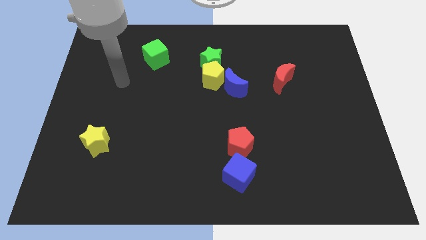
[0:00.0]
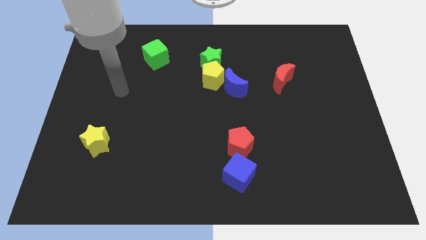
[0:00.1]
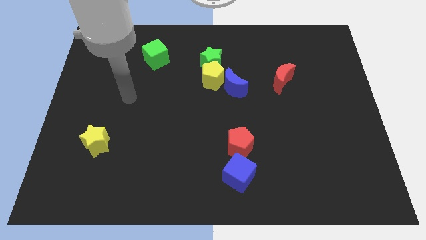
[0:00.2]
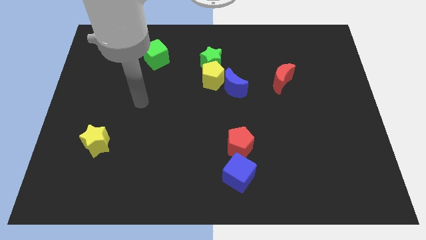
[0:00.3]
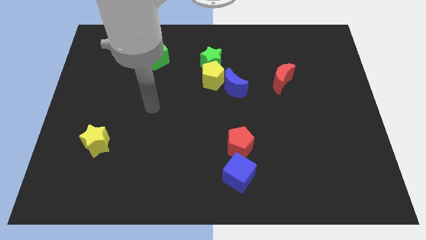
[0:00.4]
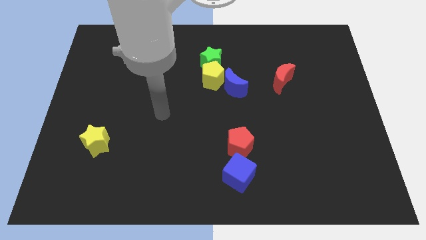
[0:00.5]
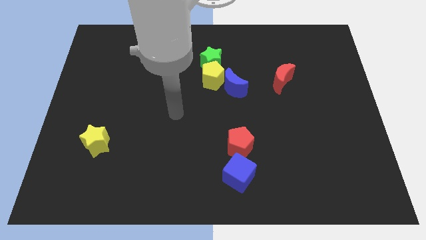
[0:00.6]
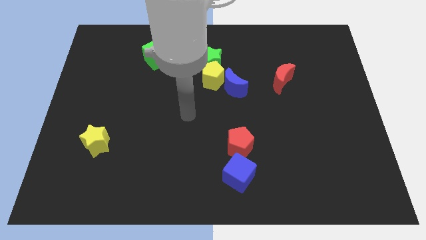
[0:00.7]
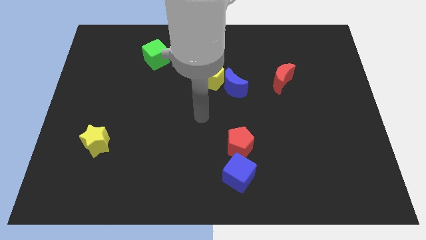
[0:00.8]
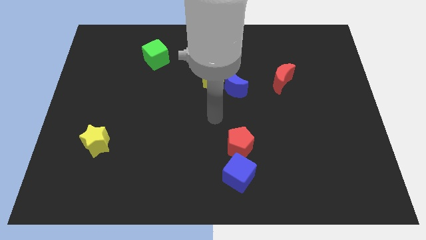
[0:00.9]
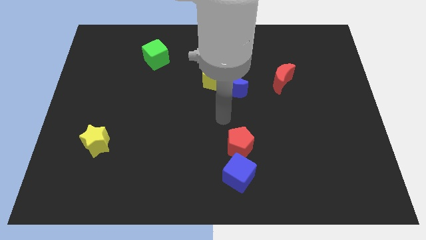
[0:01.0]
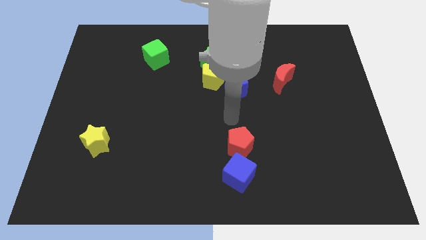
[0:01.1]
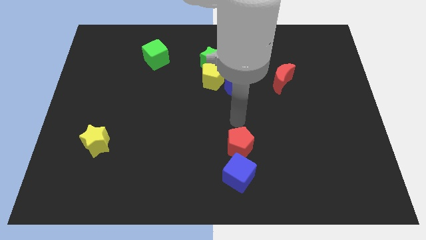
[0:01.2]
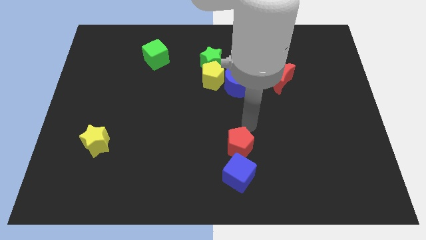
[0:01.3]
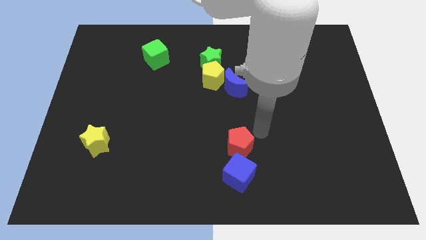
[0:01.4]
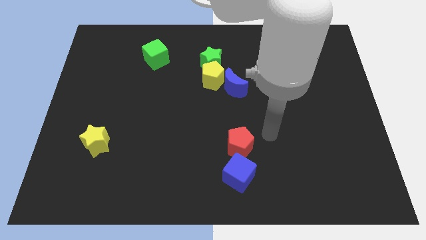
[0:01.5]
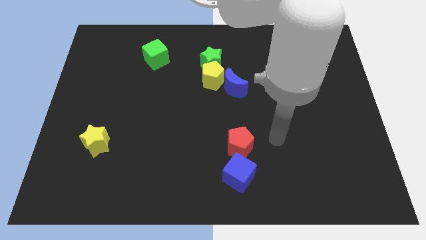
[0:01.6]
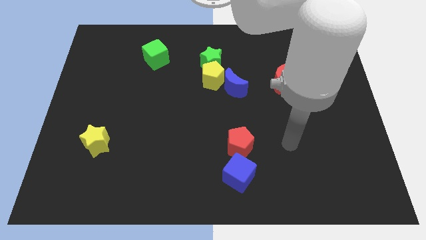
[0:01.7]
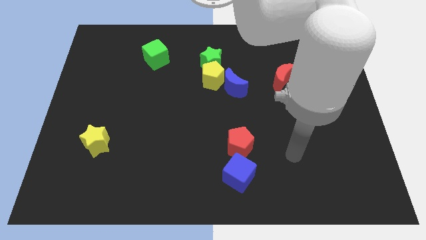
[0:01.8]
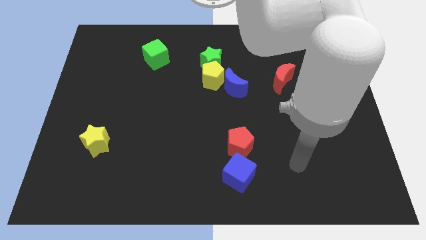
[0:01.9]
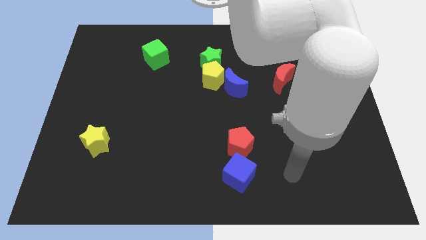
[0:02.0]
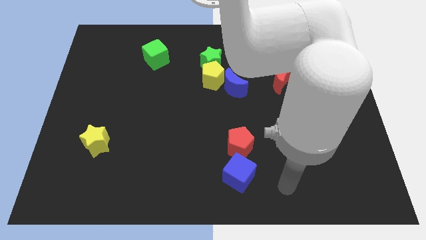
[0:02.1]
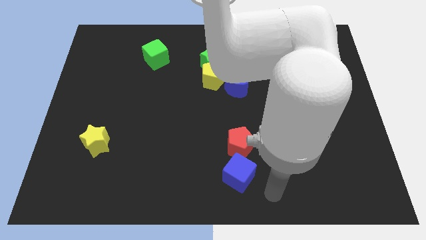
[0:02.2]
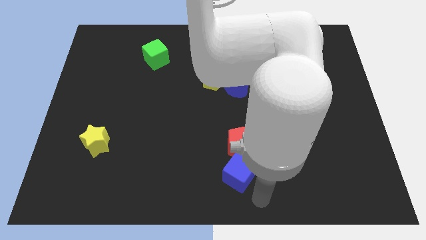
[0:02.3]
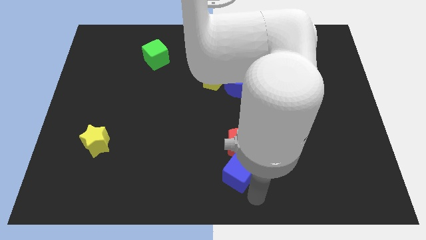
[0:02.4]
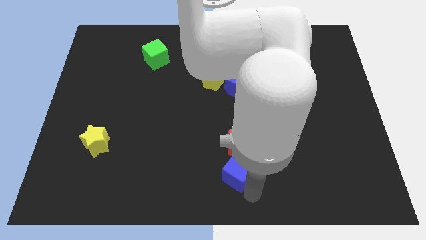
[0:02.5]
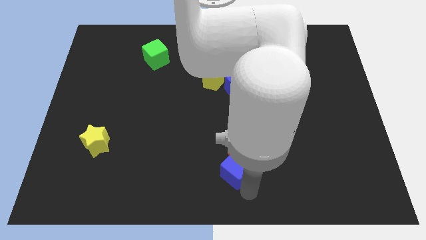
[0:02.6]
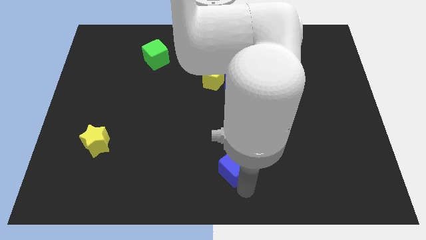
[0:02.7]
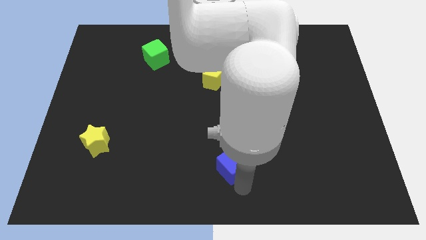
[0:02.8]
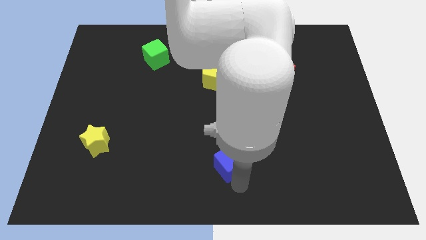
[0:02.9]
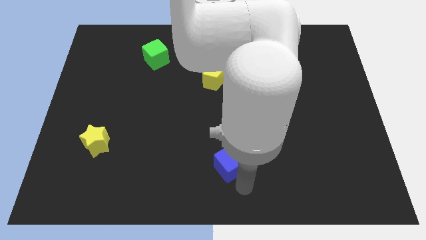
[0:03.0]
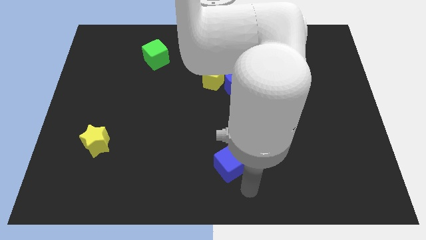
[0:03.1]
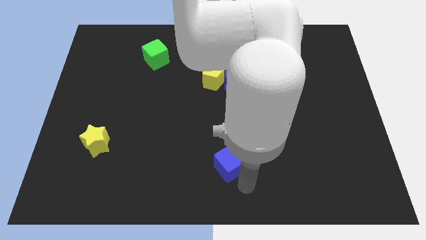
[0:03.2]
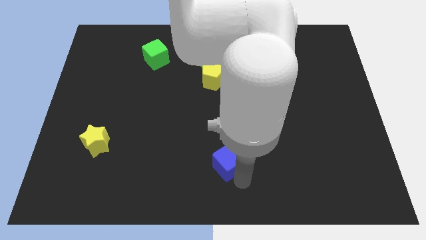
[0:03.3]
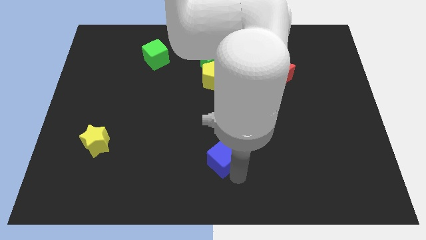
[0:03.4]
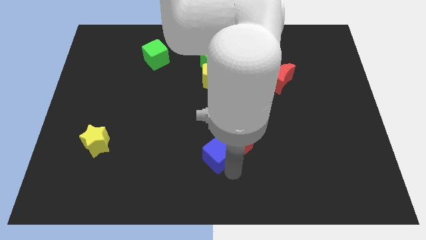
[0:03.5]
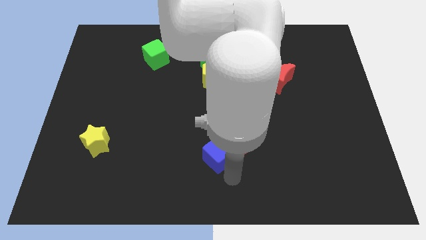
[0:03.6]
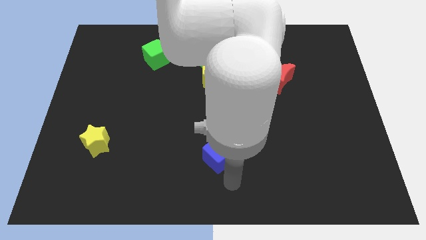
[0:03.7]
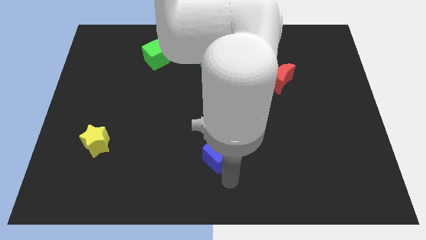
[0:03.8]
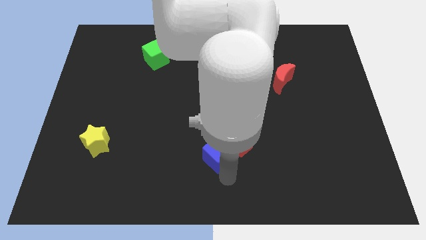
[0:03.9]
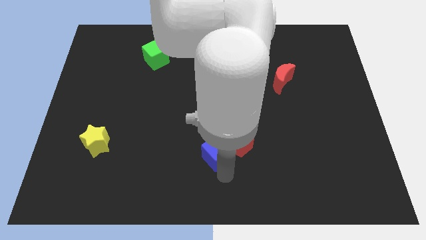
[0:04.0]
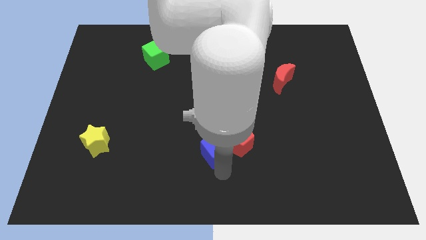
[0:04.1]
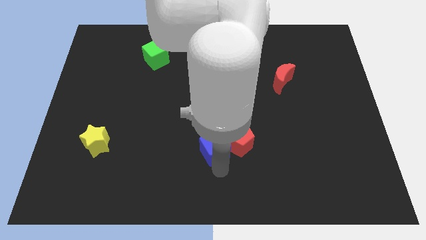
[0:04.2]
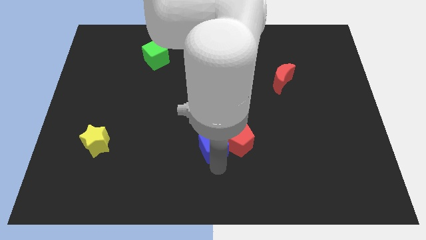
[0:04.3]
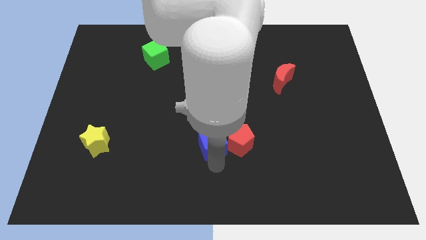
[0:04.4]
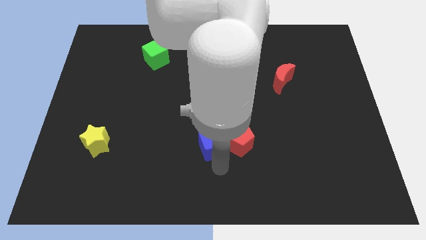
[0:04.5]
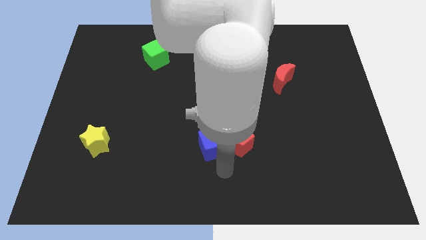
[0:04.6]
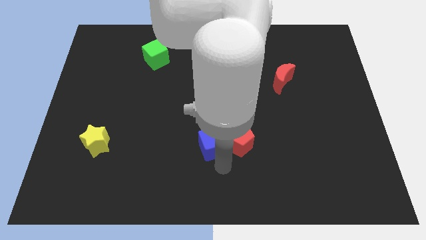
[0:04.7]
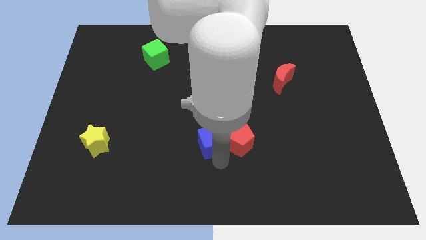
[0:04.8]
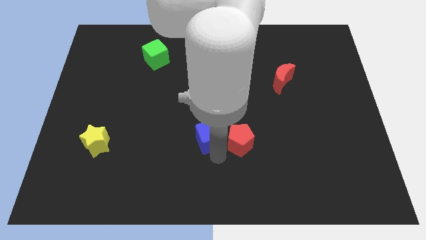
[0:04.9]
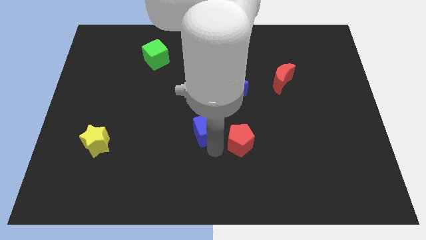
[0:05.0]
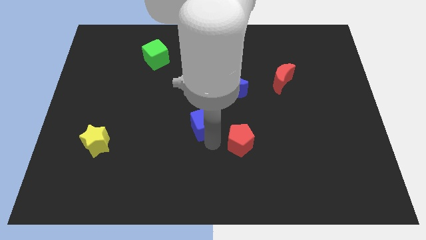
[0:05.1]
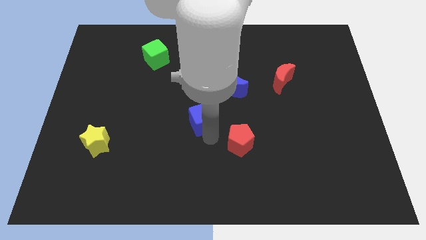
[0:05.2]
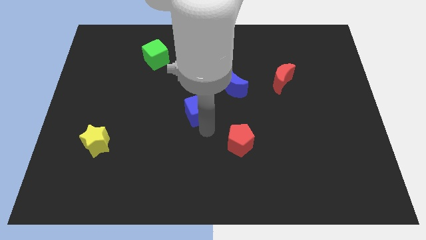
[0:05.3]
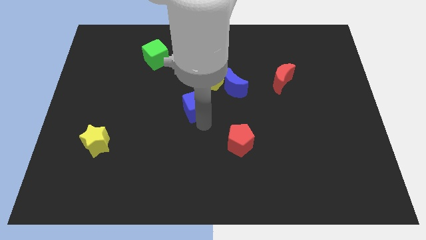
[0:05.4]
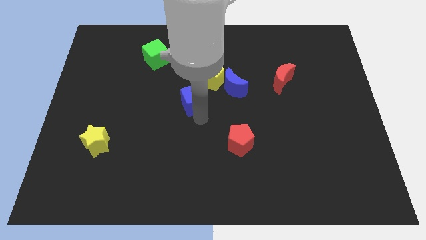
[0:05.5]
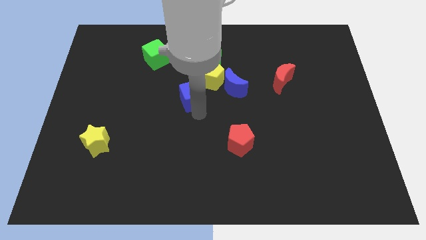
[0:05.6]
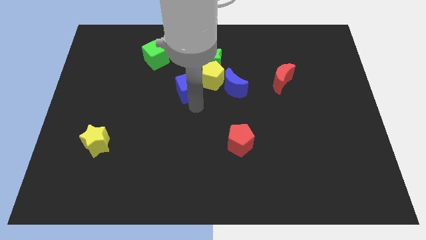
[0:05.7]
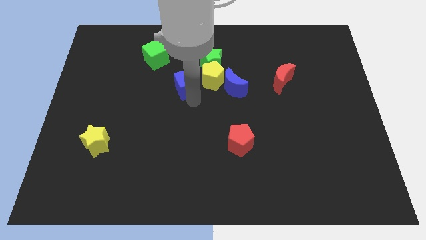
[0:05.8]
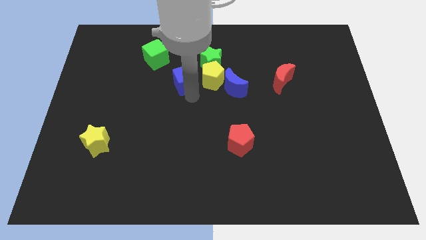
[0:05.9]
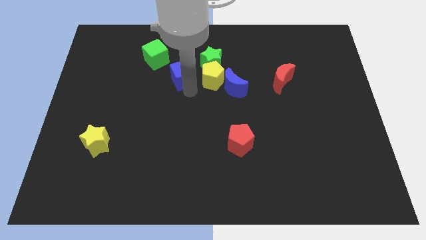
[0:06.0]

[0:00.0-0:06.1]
push the blue cube to the left of the green star

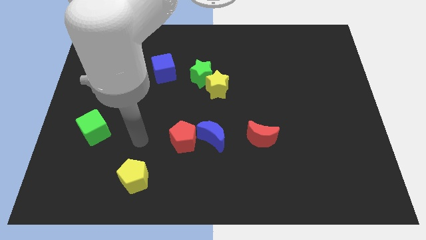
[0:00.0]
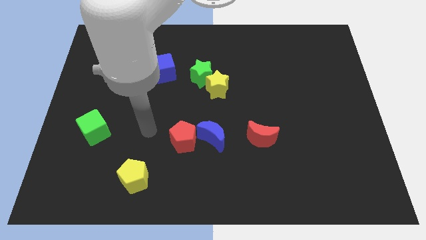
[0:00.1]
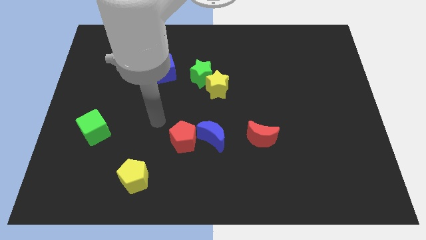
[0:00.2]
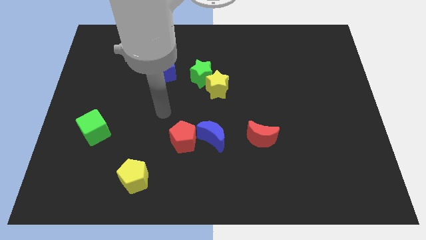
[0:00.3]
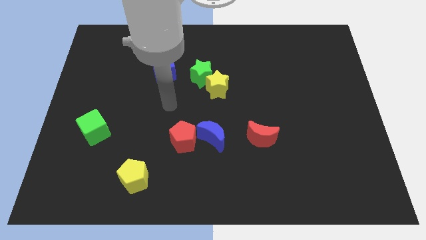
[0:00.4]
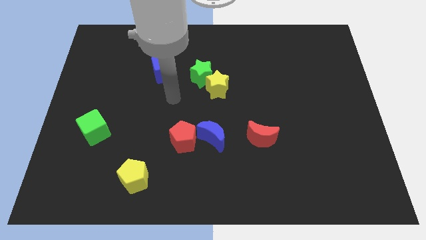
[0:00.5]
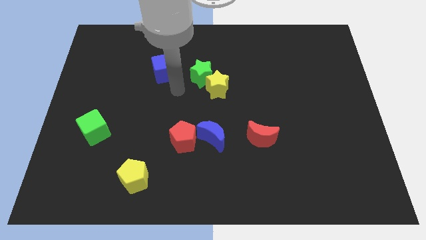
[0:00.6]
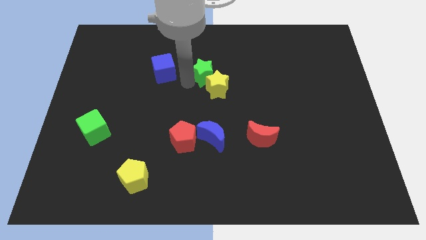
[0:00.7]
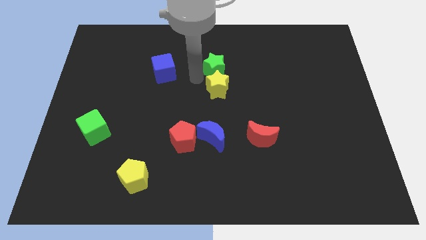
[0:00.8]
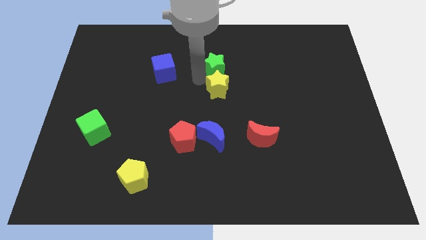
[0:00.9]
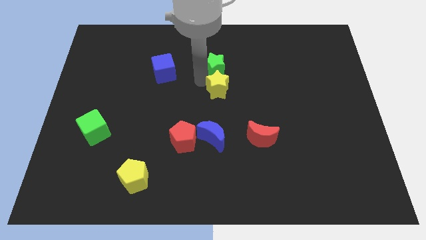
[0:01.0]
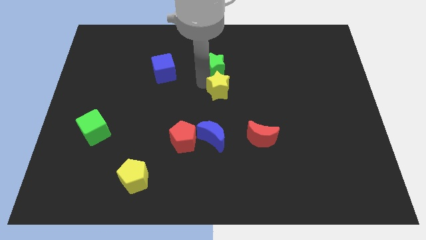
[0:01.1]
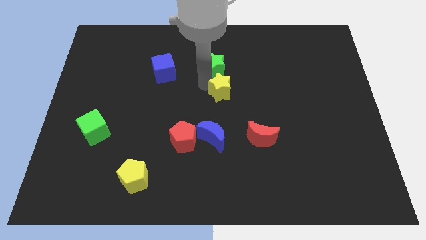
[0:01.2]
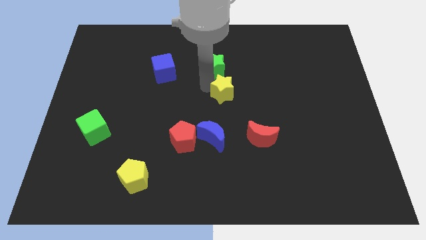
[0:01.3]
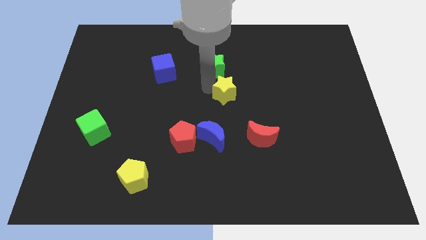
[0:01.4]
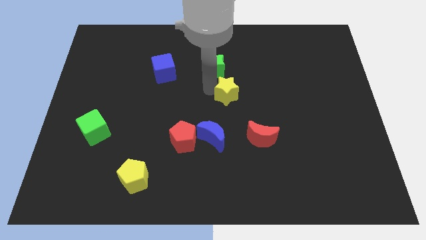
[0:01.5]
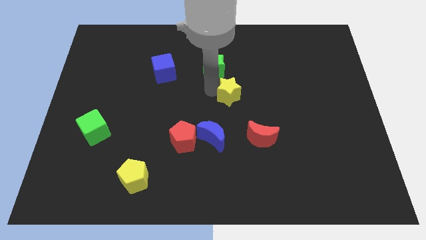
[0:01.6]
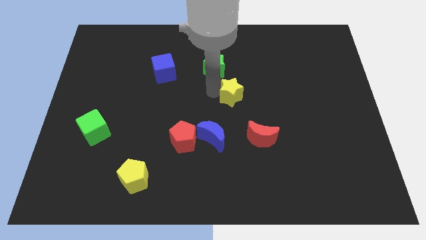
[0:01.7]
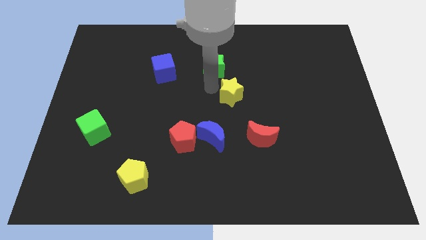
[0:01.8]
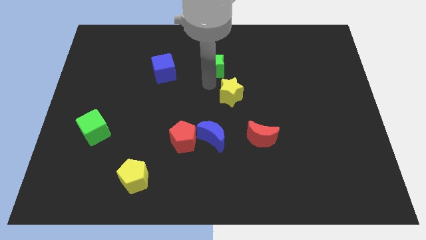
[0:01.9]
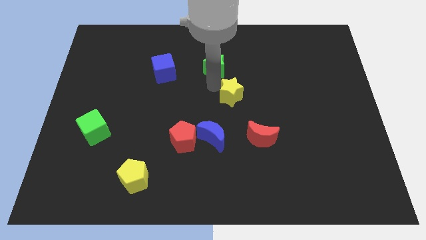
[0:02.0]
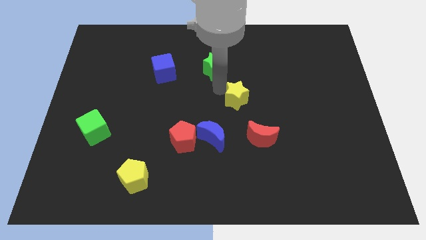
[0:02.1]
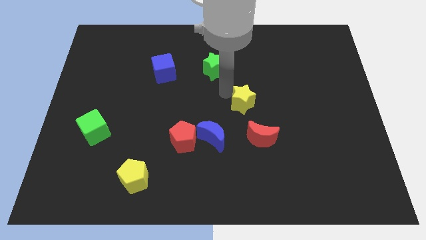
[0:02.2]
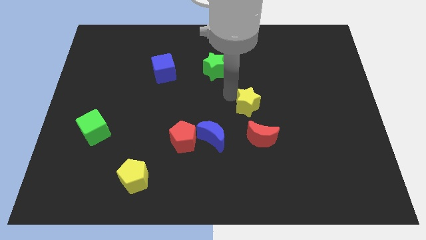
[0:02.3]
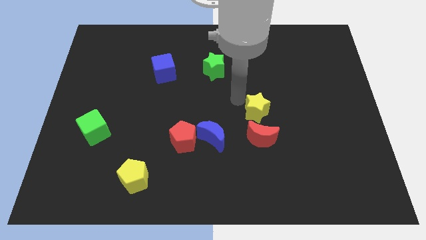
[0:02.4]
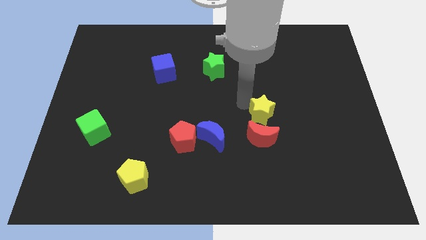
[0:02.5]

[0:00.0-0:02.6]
put the yellow star to the top right of the red moon
